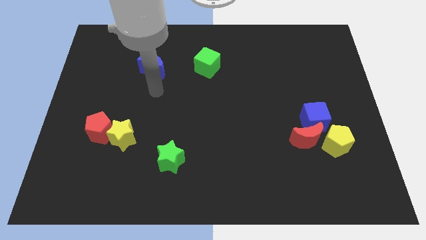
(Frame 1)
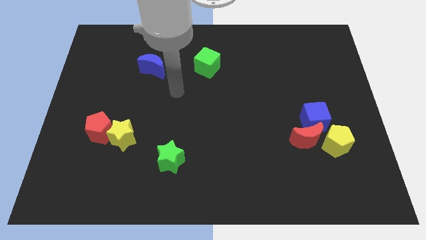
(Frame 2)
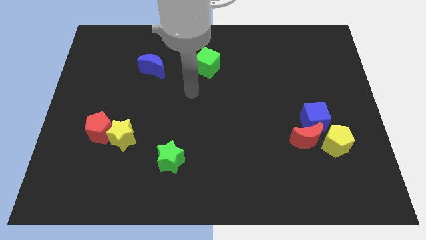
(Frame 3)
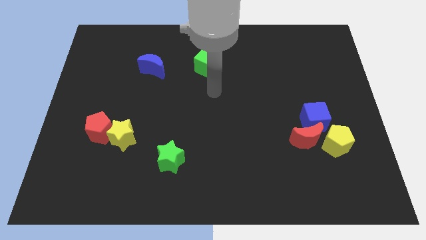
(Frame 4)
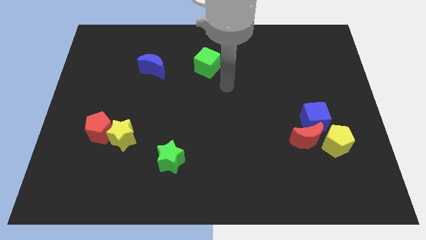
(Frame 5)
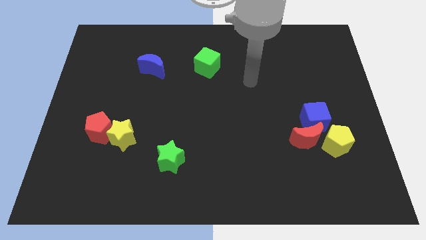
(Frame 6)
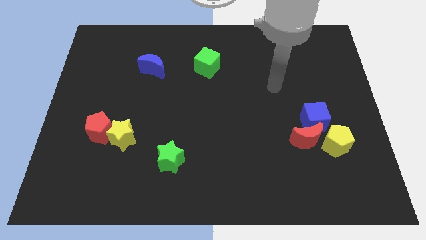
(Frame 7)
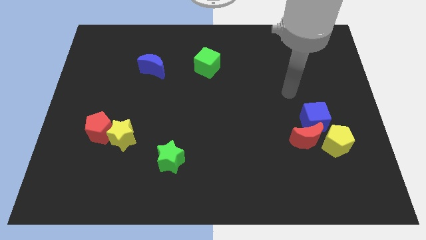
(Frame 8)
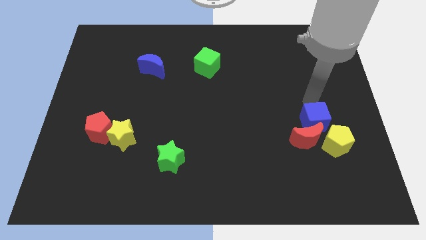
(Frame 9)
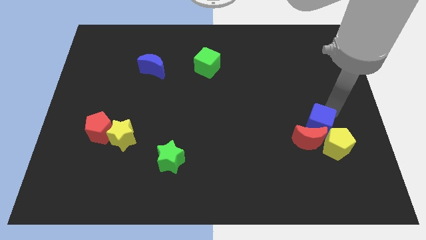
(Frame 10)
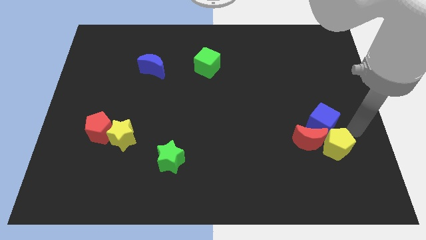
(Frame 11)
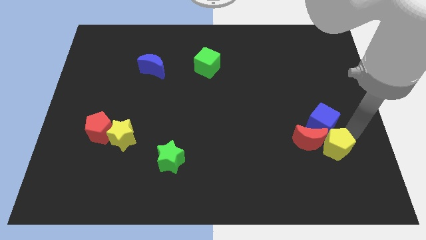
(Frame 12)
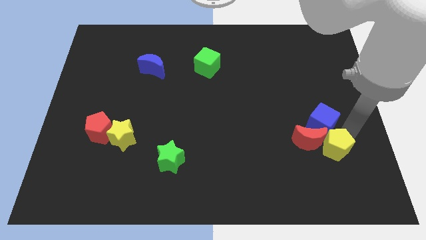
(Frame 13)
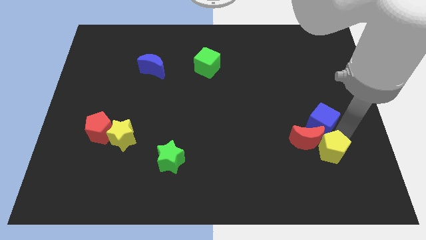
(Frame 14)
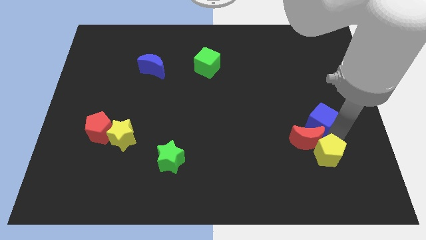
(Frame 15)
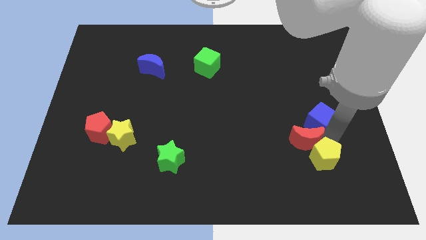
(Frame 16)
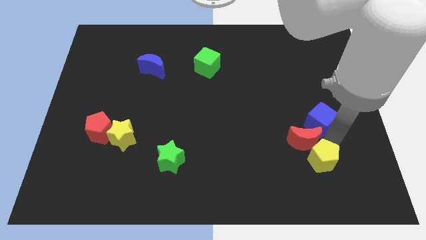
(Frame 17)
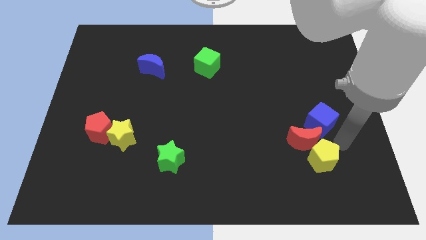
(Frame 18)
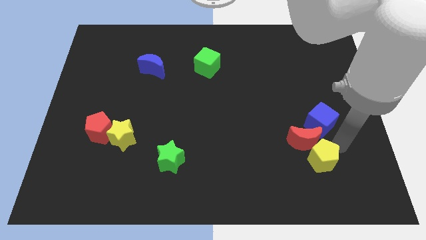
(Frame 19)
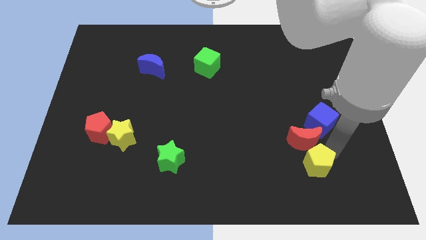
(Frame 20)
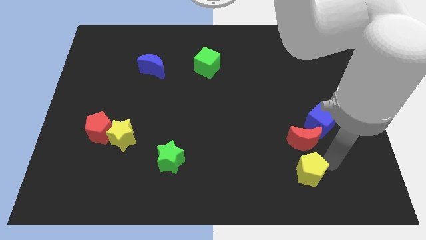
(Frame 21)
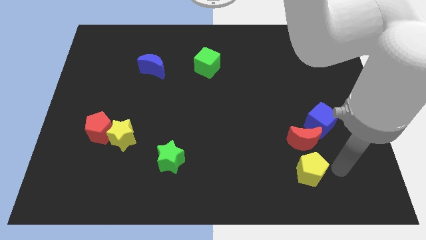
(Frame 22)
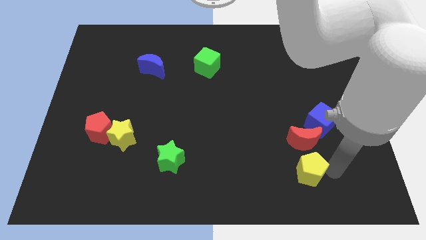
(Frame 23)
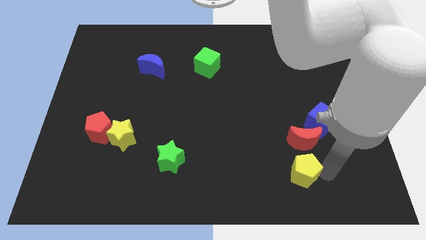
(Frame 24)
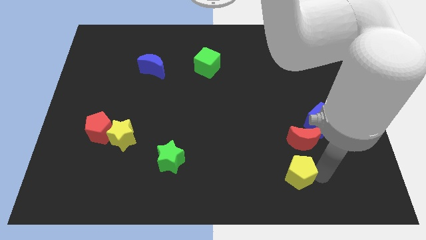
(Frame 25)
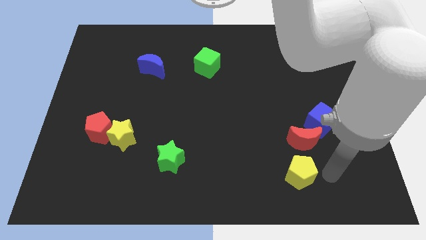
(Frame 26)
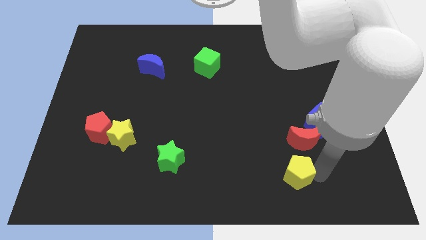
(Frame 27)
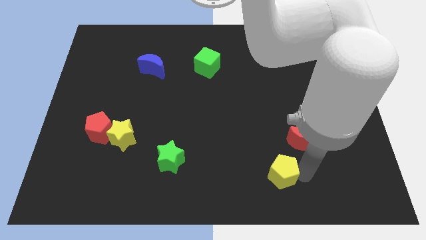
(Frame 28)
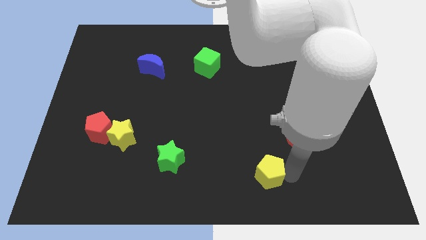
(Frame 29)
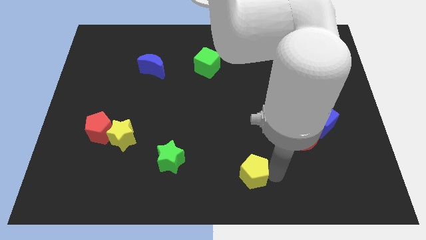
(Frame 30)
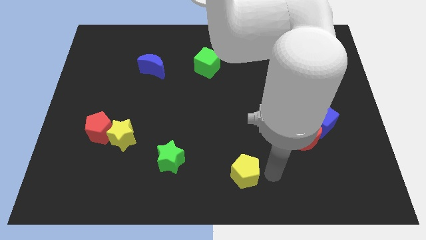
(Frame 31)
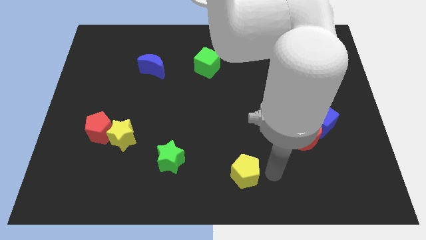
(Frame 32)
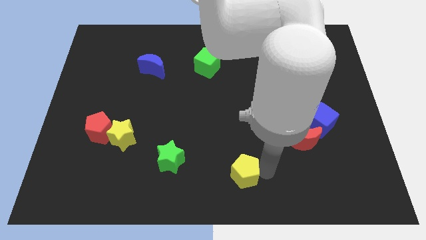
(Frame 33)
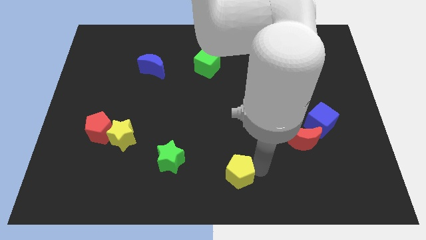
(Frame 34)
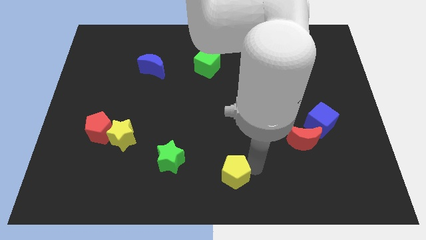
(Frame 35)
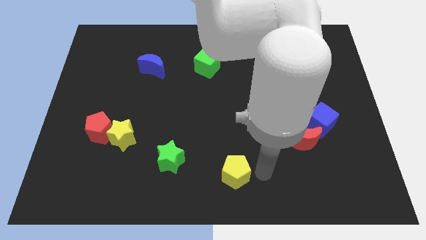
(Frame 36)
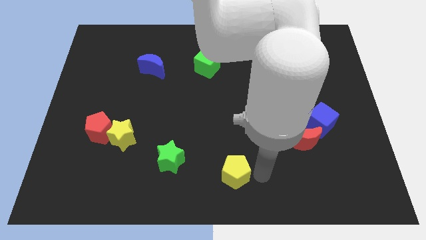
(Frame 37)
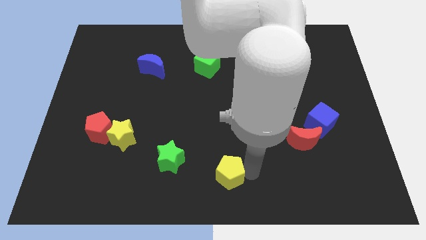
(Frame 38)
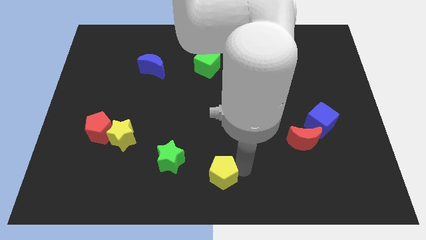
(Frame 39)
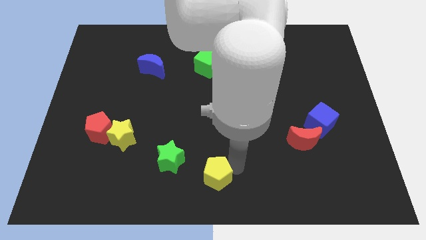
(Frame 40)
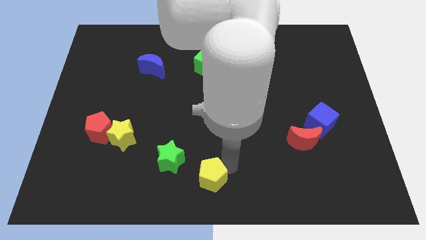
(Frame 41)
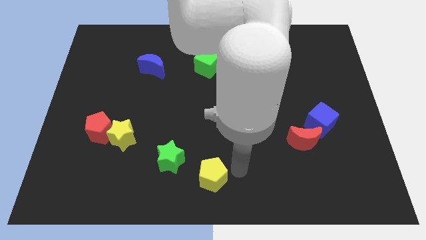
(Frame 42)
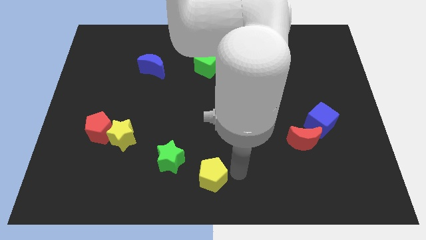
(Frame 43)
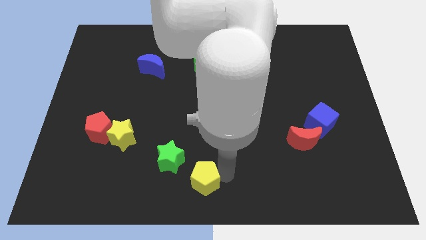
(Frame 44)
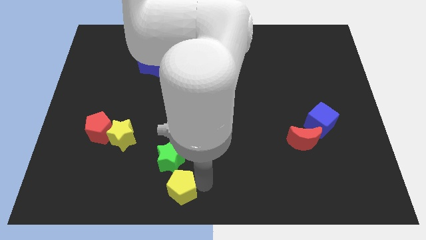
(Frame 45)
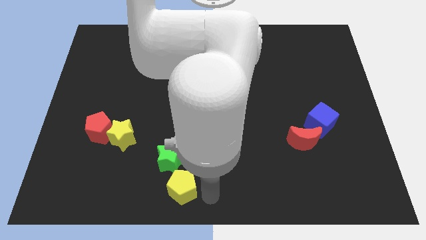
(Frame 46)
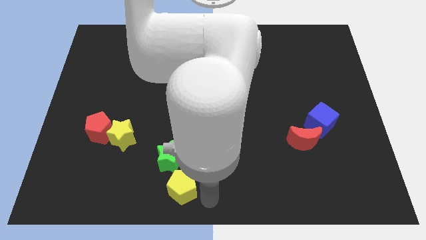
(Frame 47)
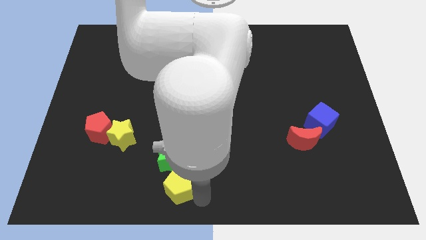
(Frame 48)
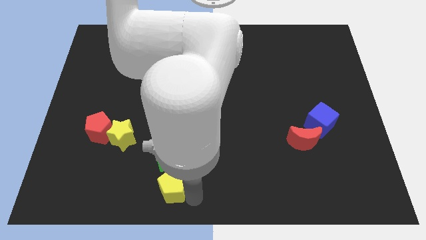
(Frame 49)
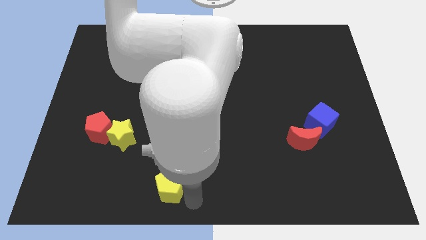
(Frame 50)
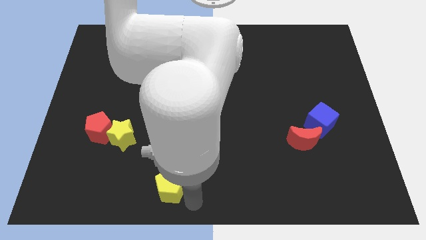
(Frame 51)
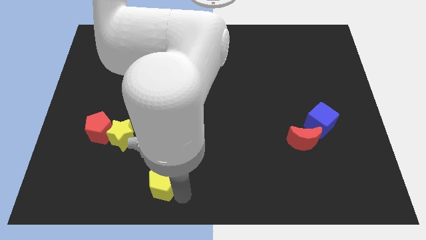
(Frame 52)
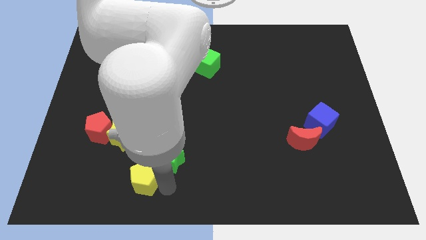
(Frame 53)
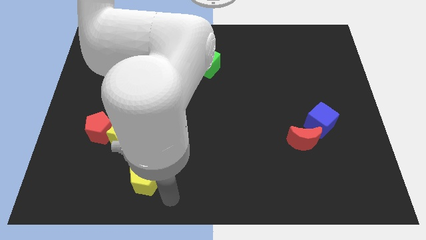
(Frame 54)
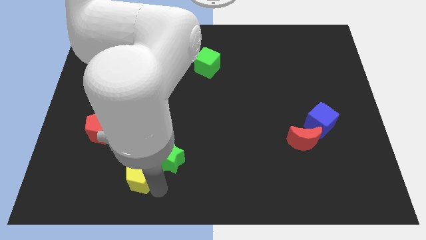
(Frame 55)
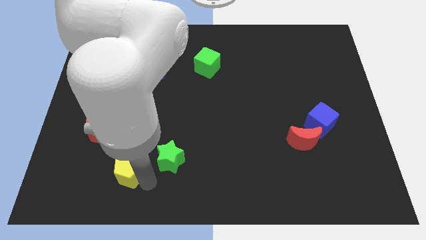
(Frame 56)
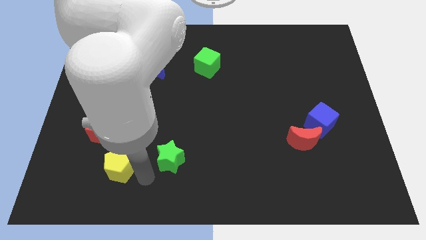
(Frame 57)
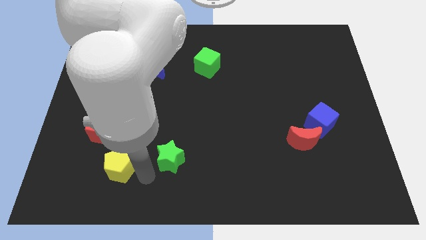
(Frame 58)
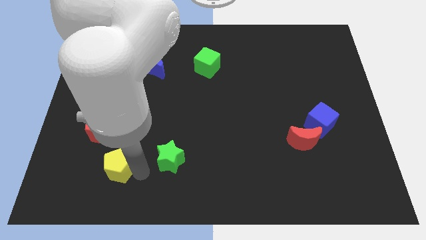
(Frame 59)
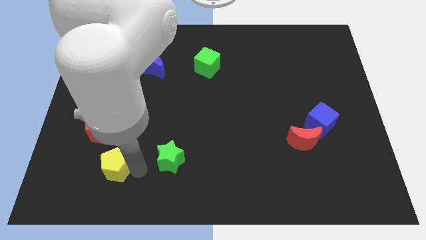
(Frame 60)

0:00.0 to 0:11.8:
slide the yellow pentagon diagonally down and to the left of the yellow star

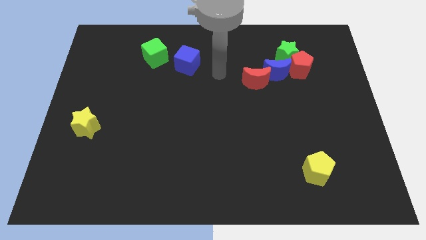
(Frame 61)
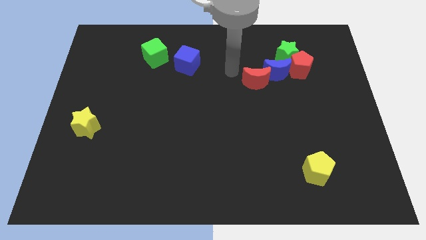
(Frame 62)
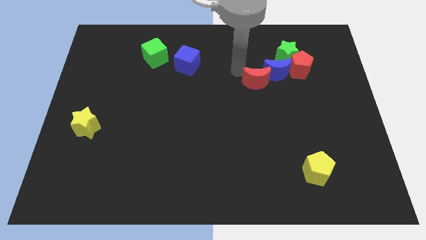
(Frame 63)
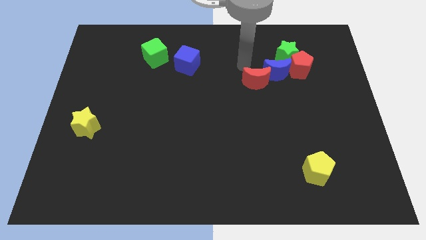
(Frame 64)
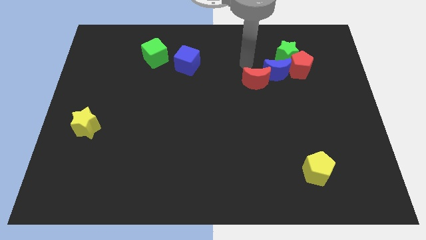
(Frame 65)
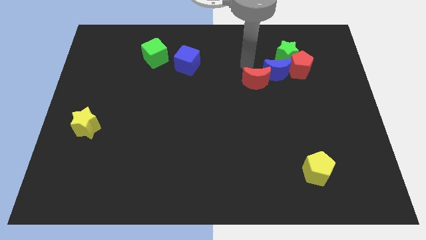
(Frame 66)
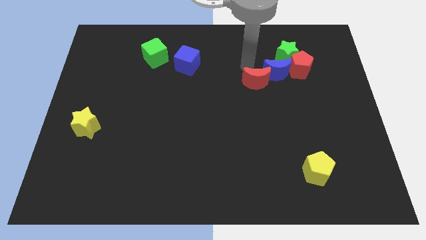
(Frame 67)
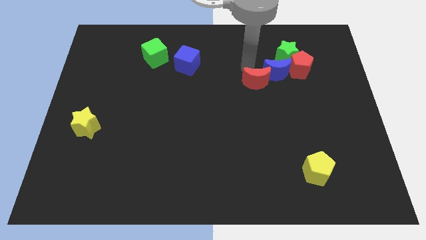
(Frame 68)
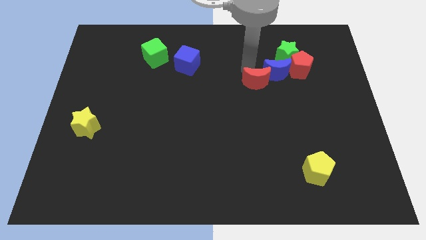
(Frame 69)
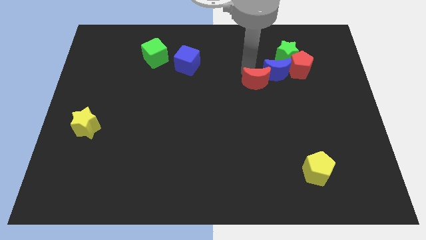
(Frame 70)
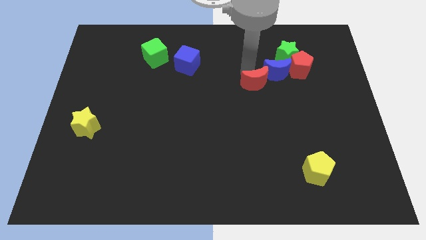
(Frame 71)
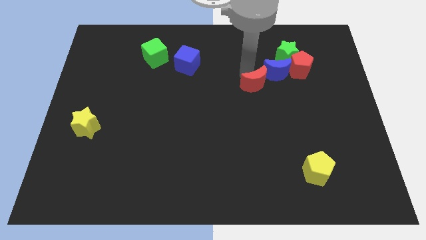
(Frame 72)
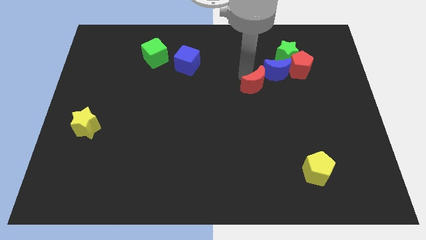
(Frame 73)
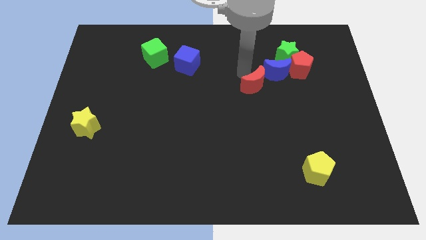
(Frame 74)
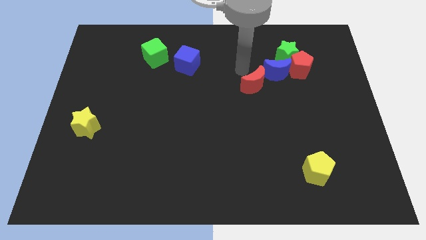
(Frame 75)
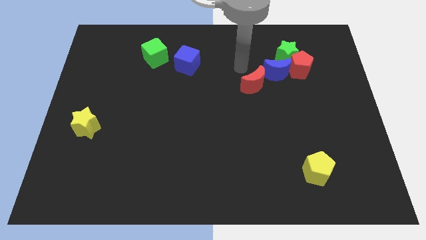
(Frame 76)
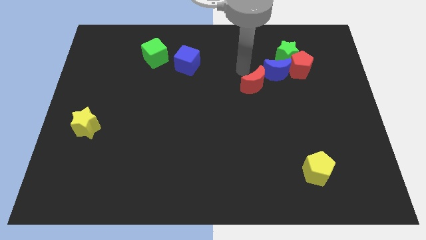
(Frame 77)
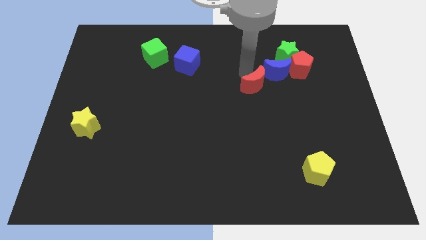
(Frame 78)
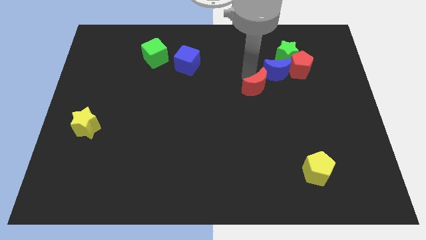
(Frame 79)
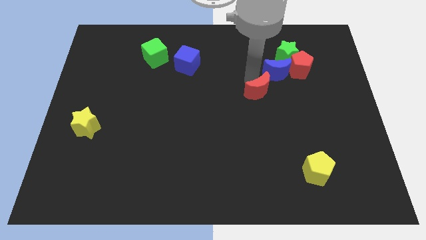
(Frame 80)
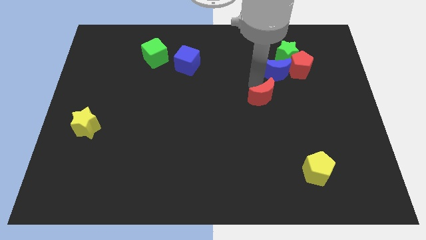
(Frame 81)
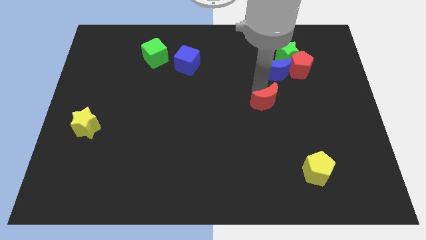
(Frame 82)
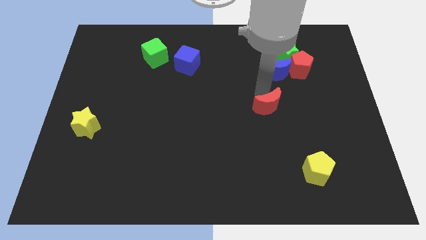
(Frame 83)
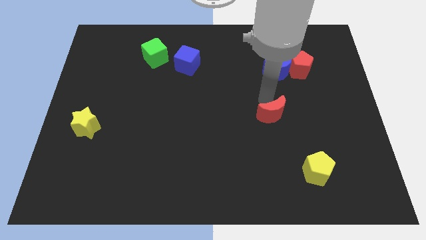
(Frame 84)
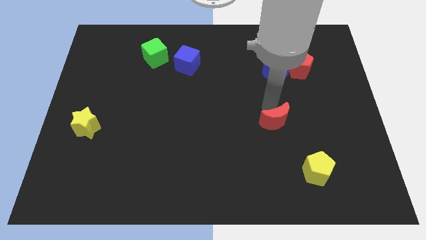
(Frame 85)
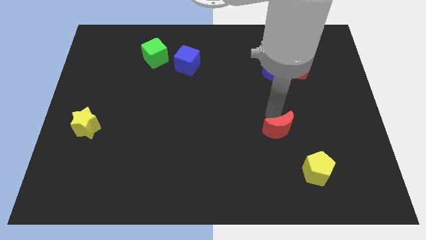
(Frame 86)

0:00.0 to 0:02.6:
move the red moon to the top left of the yellow pentagon
